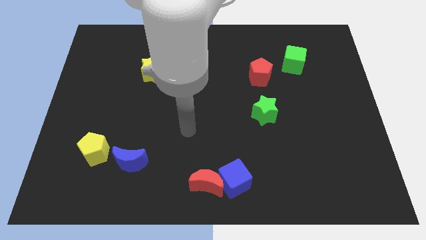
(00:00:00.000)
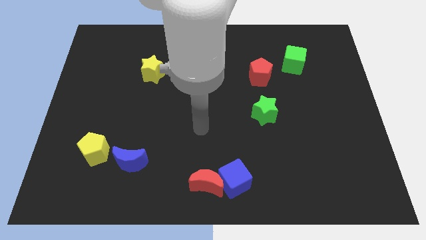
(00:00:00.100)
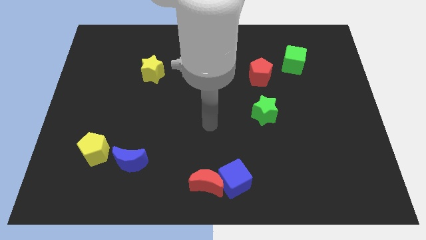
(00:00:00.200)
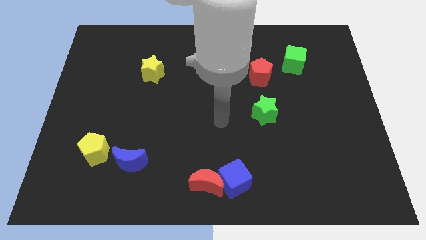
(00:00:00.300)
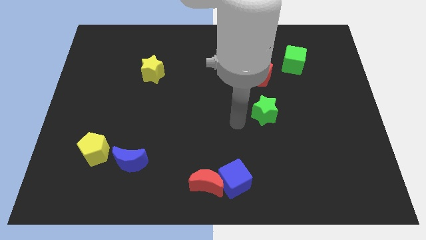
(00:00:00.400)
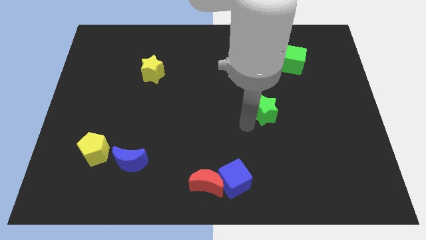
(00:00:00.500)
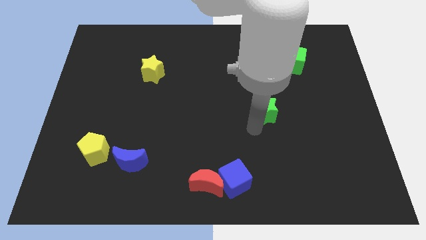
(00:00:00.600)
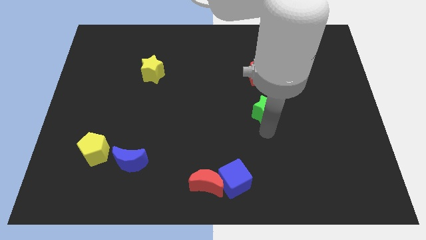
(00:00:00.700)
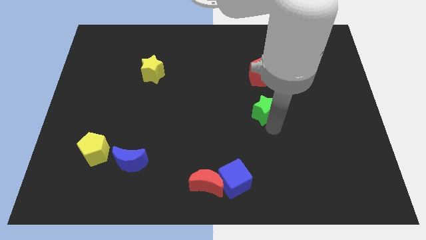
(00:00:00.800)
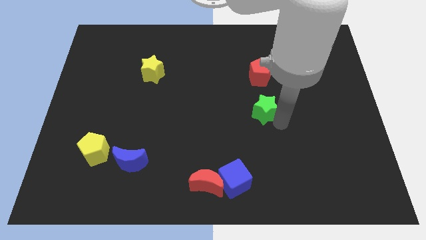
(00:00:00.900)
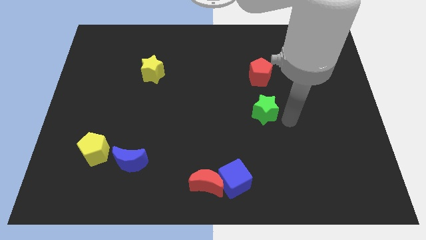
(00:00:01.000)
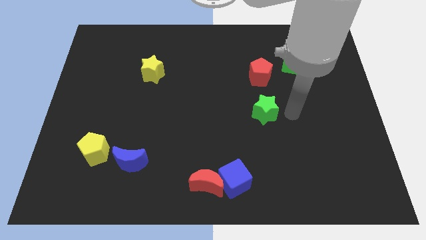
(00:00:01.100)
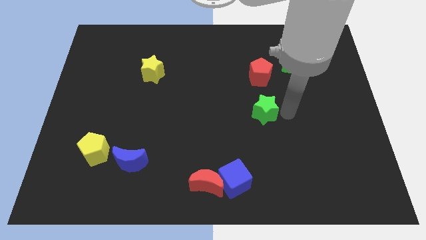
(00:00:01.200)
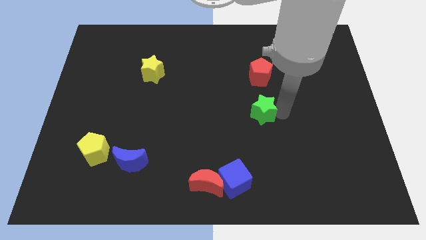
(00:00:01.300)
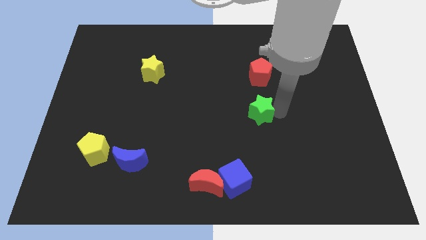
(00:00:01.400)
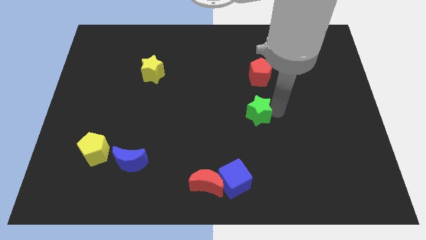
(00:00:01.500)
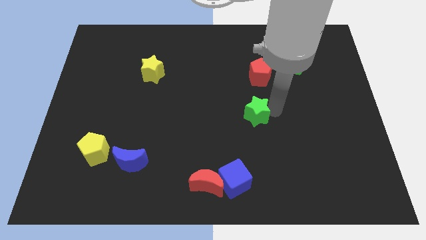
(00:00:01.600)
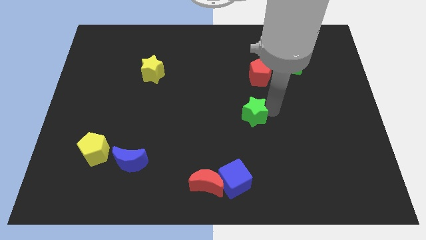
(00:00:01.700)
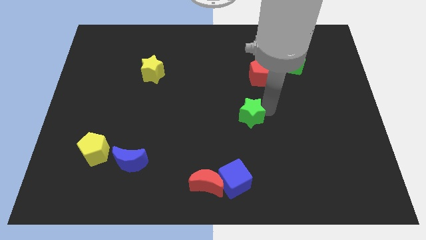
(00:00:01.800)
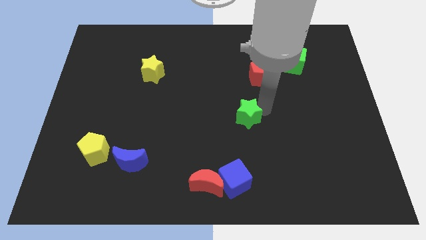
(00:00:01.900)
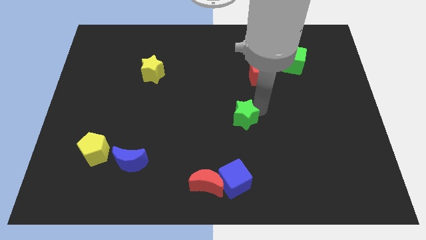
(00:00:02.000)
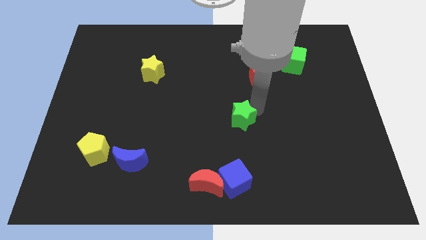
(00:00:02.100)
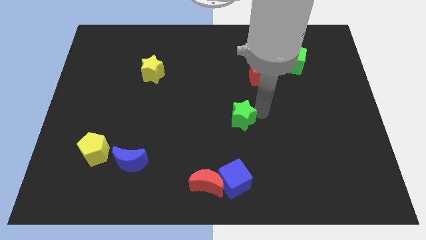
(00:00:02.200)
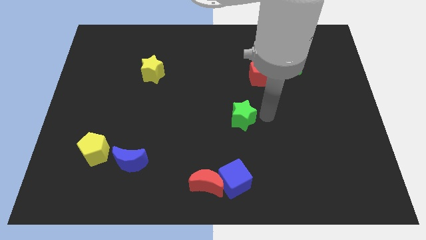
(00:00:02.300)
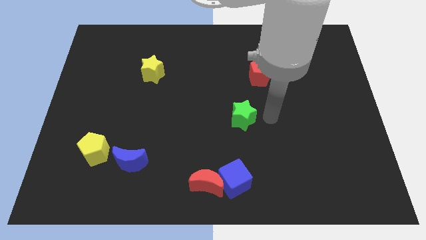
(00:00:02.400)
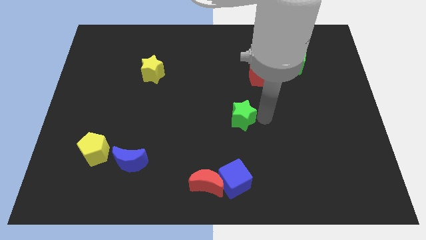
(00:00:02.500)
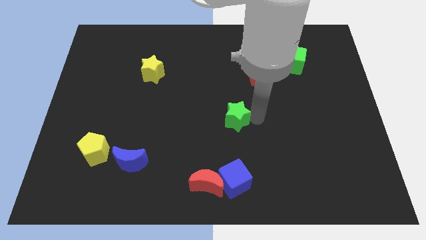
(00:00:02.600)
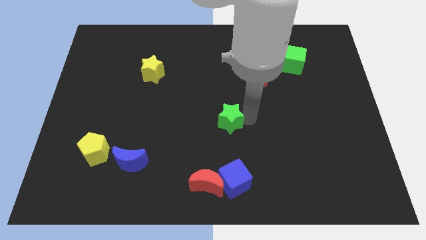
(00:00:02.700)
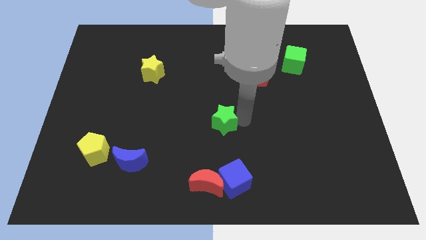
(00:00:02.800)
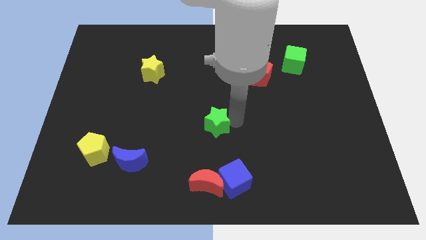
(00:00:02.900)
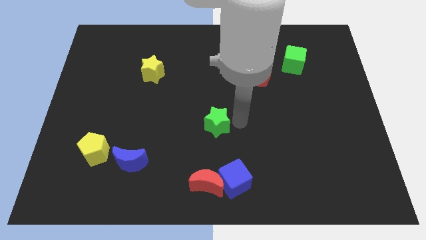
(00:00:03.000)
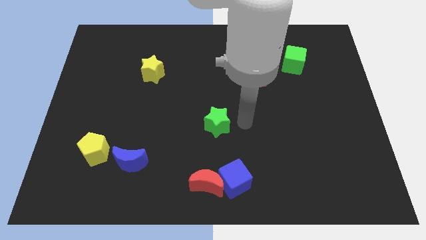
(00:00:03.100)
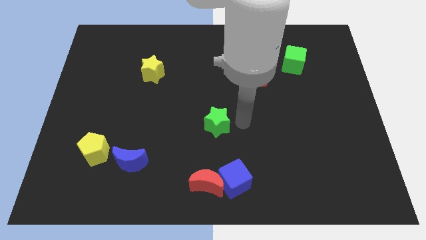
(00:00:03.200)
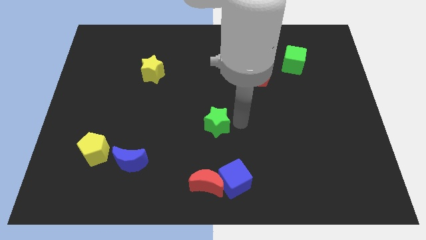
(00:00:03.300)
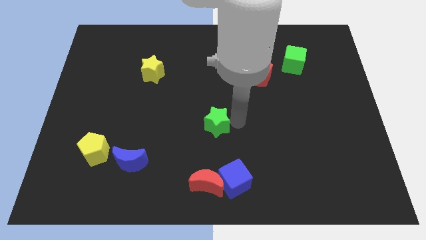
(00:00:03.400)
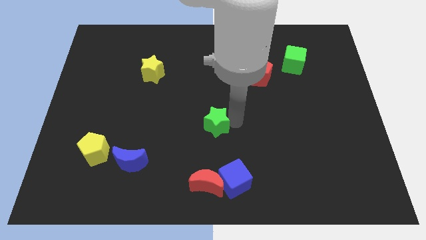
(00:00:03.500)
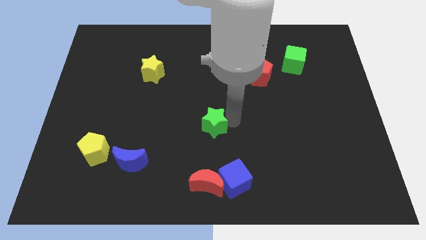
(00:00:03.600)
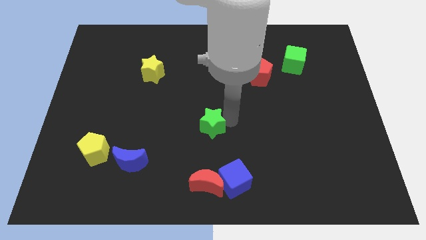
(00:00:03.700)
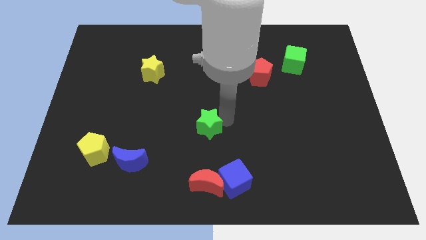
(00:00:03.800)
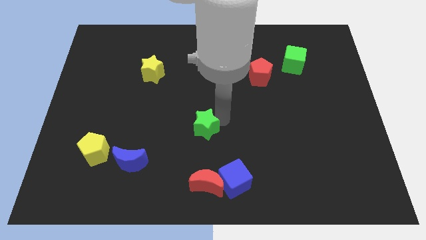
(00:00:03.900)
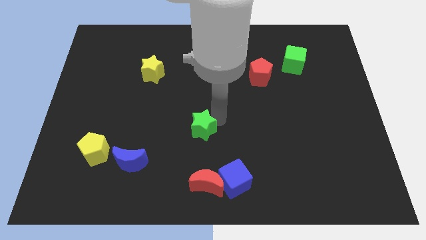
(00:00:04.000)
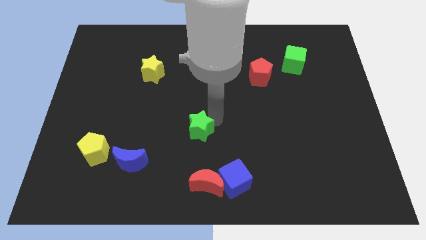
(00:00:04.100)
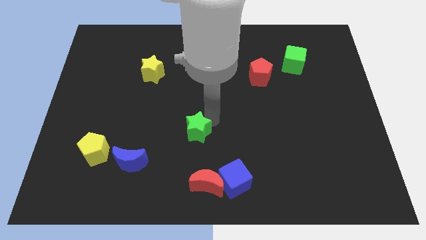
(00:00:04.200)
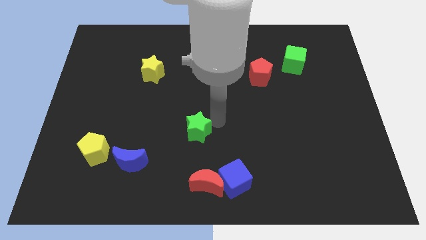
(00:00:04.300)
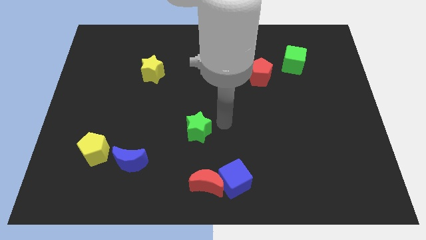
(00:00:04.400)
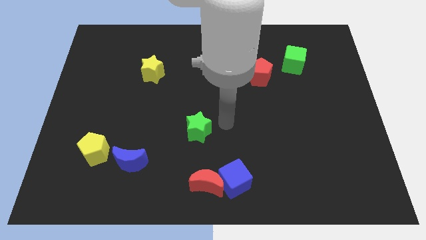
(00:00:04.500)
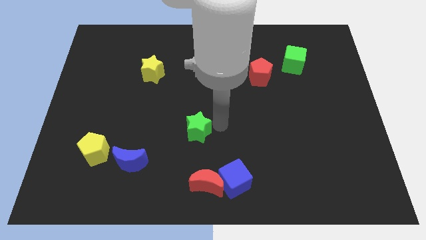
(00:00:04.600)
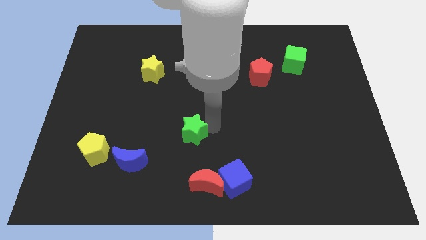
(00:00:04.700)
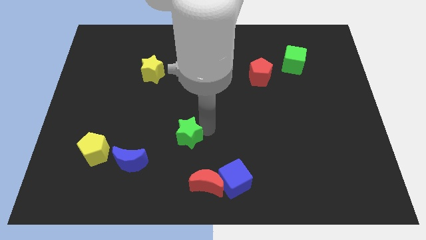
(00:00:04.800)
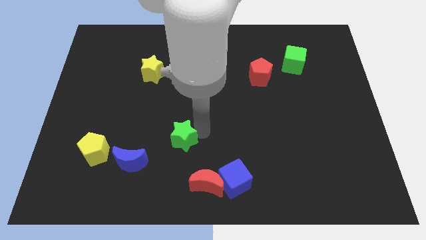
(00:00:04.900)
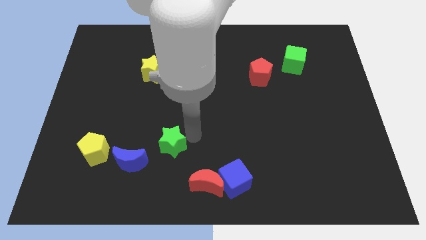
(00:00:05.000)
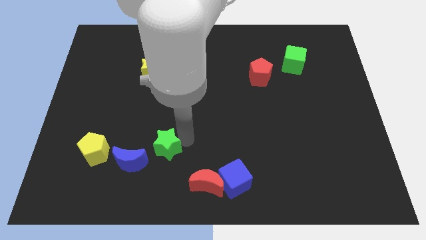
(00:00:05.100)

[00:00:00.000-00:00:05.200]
put the green star just right of the yellow pentagon

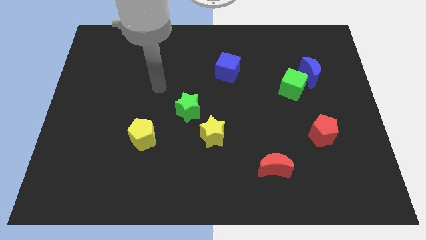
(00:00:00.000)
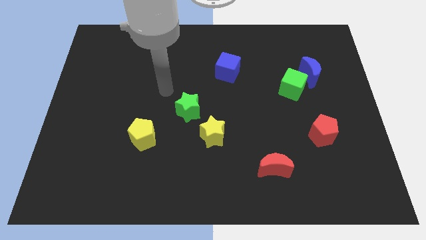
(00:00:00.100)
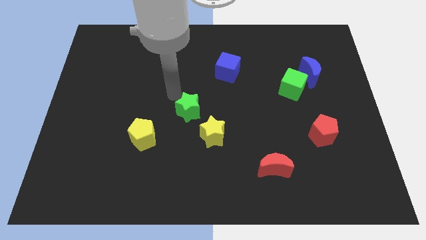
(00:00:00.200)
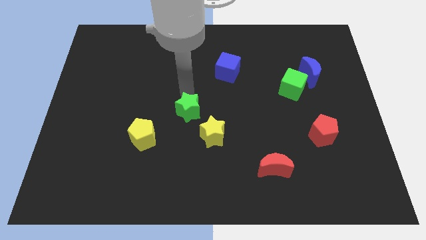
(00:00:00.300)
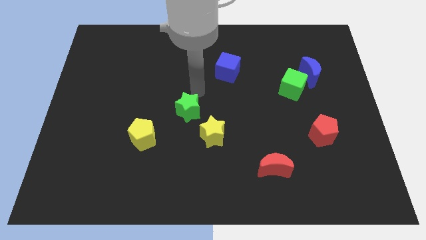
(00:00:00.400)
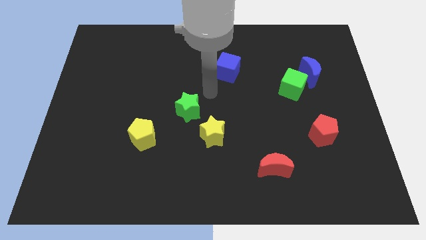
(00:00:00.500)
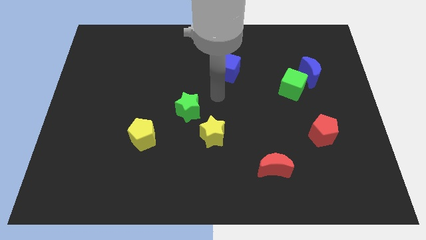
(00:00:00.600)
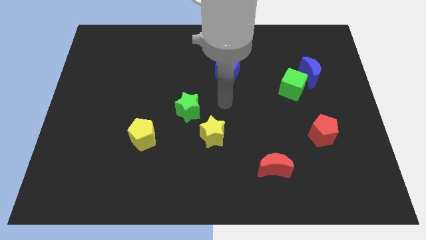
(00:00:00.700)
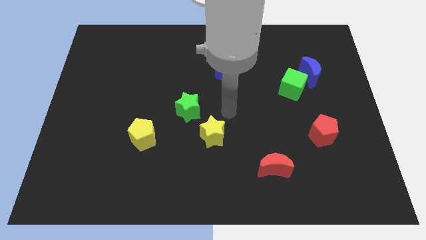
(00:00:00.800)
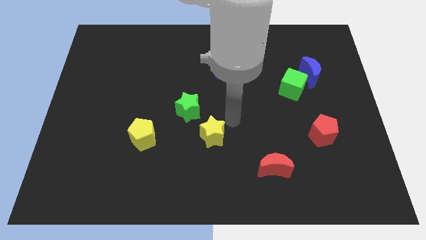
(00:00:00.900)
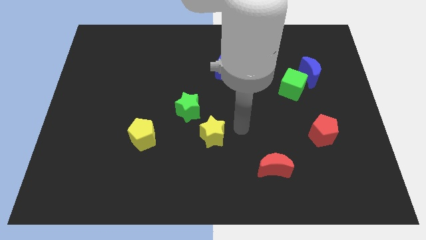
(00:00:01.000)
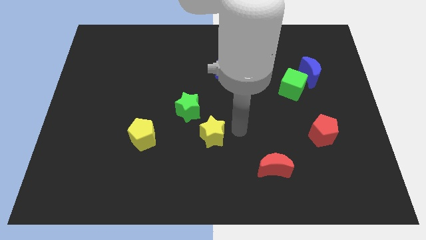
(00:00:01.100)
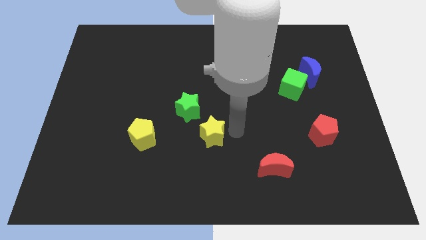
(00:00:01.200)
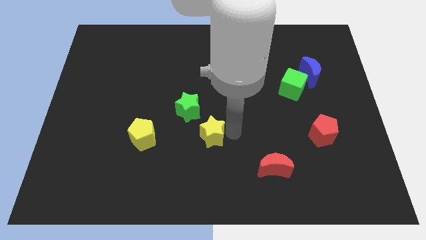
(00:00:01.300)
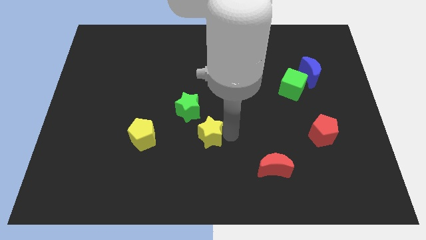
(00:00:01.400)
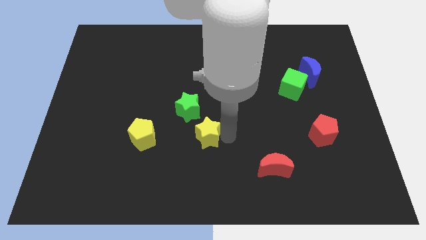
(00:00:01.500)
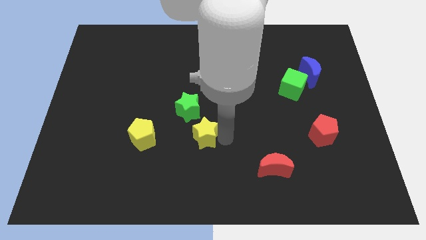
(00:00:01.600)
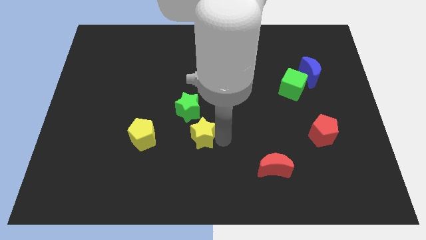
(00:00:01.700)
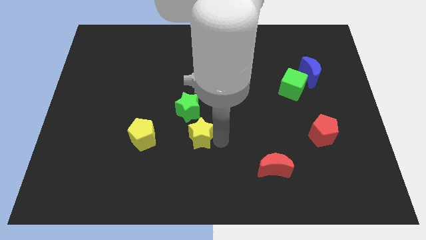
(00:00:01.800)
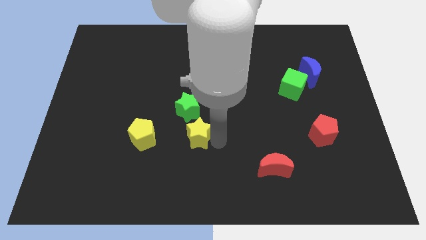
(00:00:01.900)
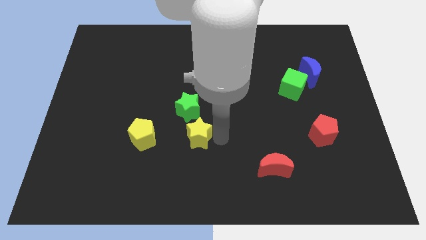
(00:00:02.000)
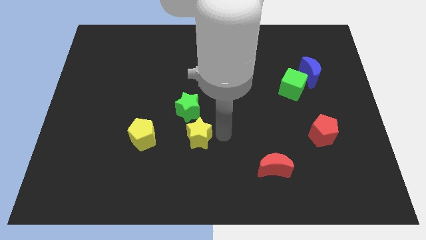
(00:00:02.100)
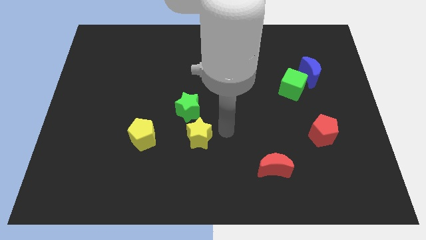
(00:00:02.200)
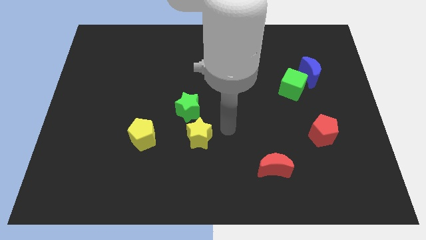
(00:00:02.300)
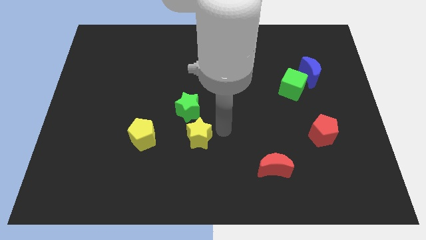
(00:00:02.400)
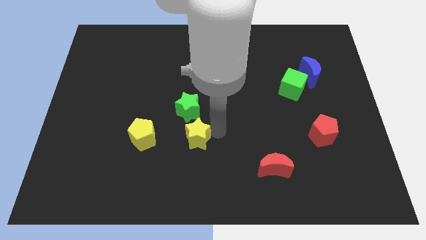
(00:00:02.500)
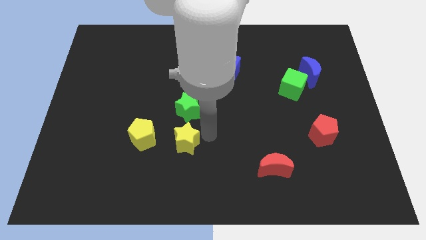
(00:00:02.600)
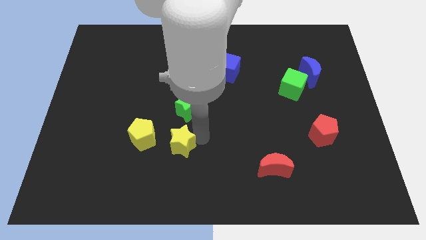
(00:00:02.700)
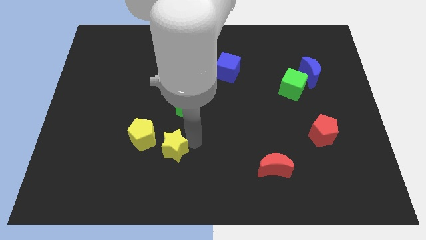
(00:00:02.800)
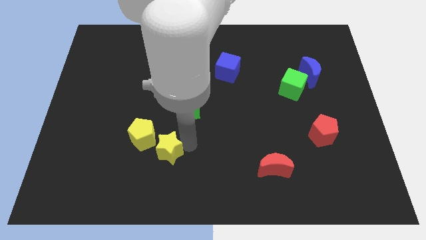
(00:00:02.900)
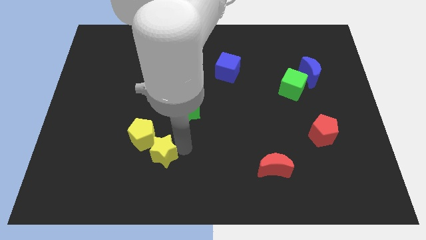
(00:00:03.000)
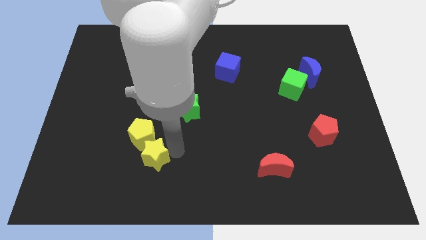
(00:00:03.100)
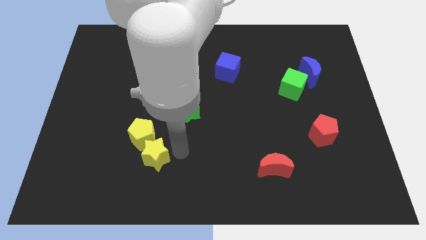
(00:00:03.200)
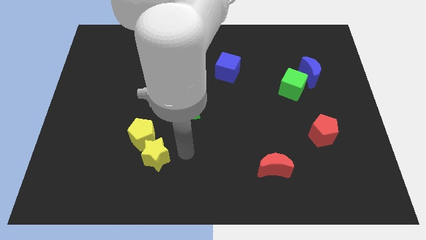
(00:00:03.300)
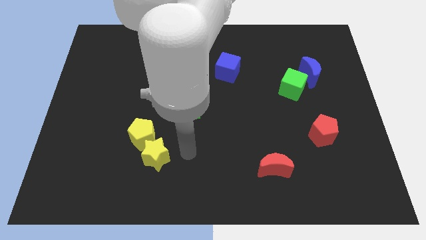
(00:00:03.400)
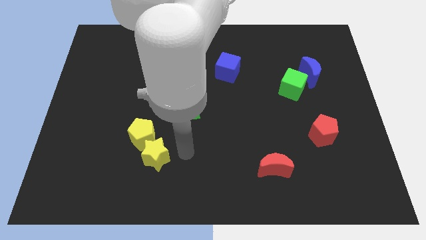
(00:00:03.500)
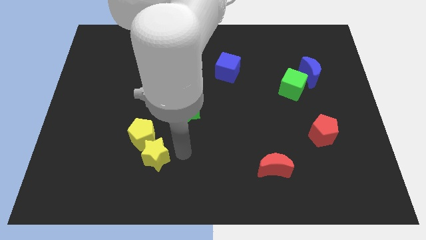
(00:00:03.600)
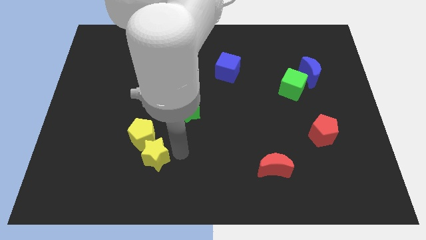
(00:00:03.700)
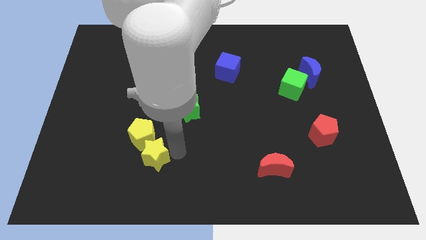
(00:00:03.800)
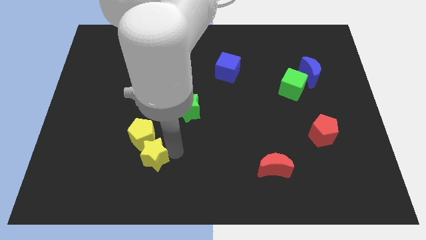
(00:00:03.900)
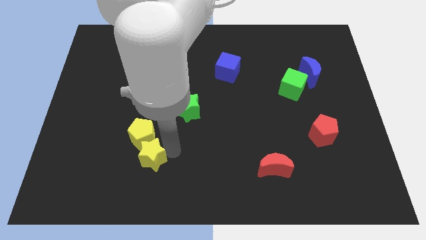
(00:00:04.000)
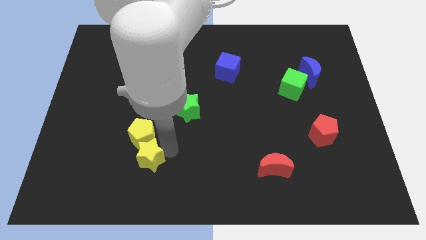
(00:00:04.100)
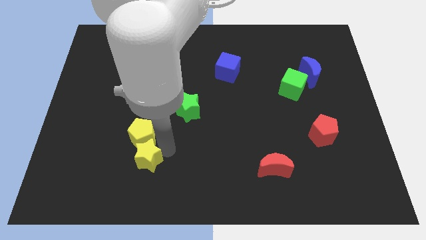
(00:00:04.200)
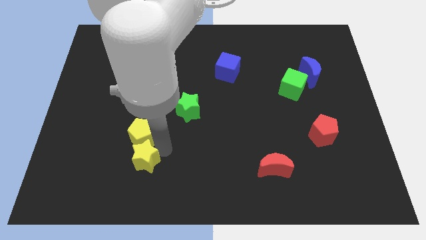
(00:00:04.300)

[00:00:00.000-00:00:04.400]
push the yellow star to the bottom left side of the yellow pentagon
